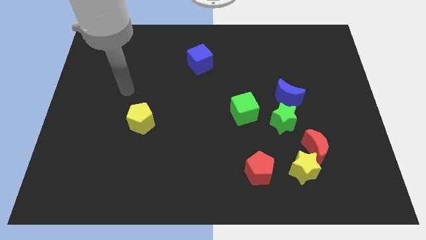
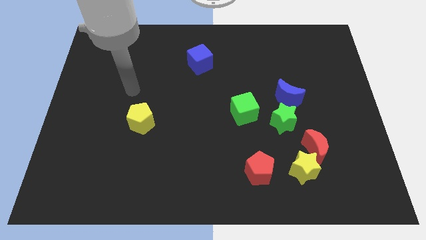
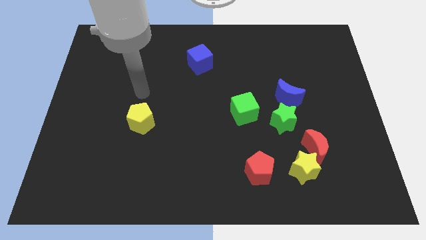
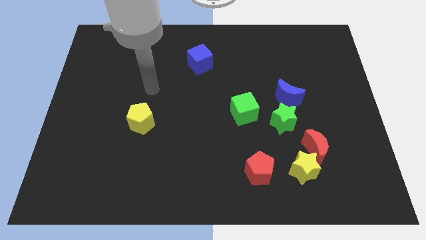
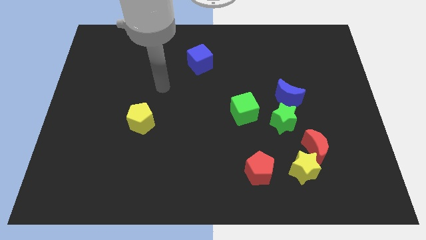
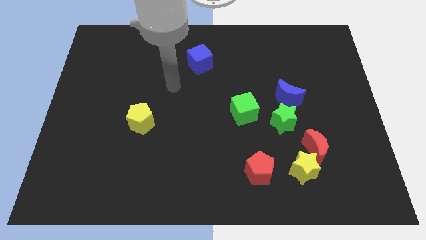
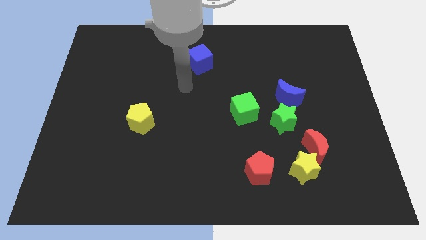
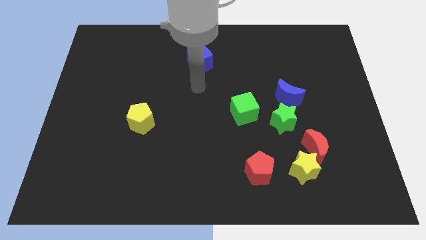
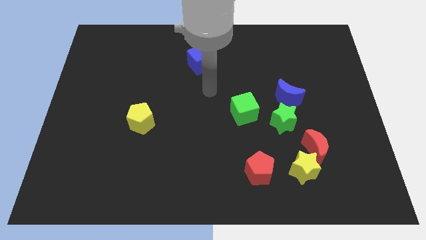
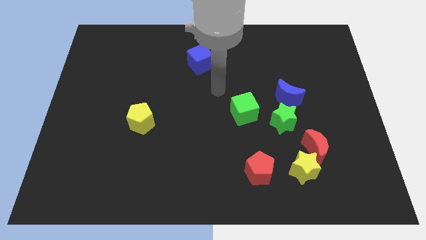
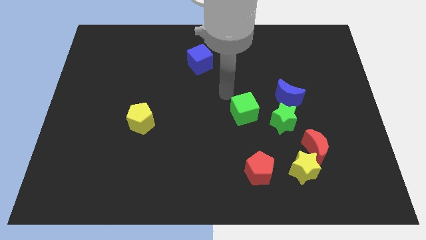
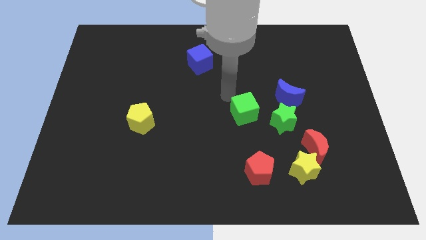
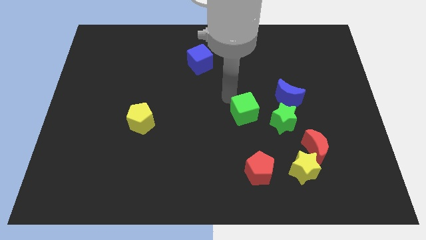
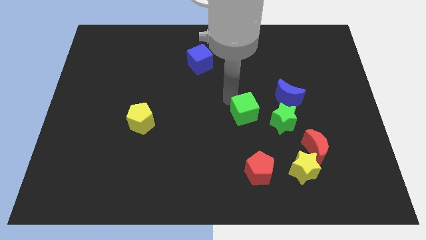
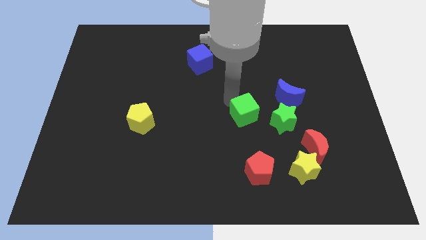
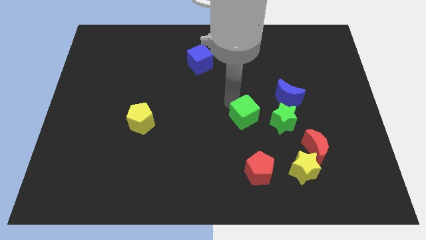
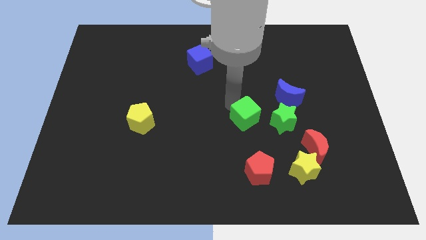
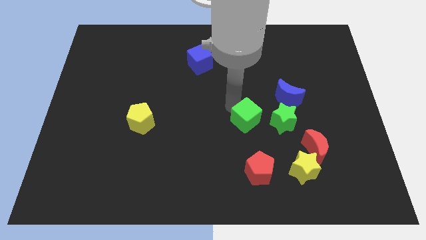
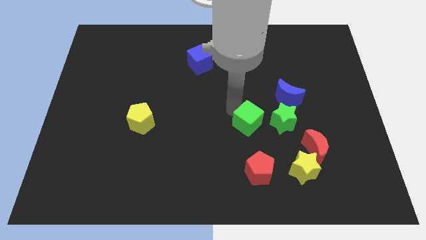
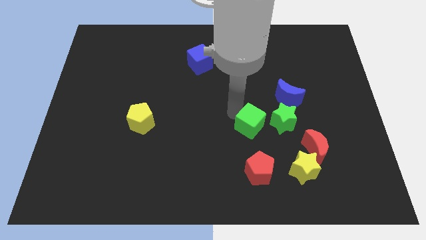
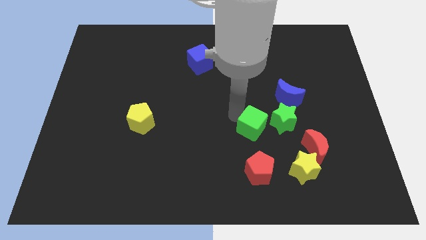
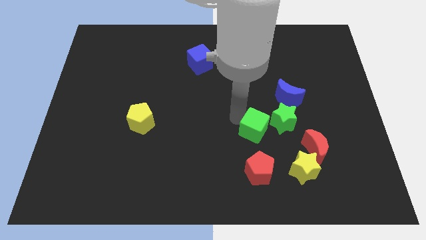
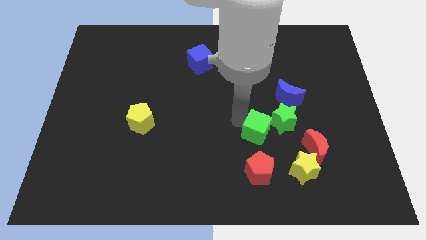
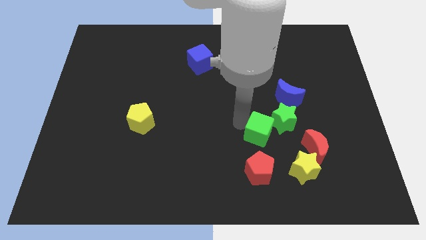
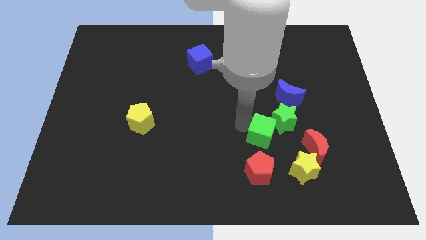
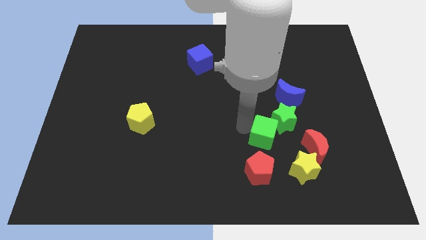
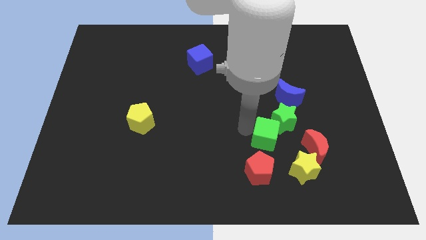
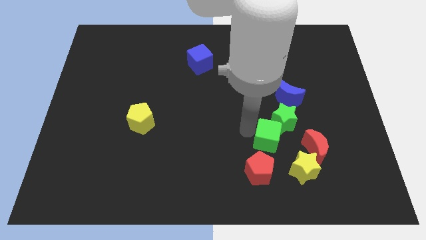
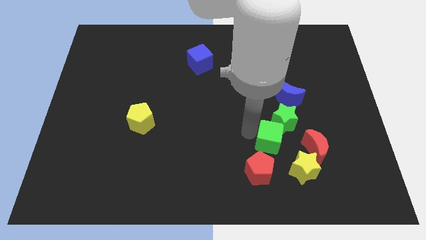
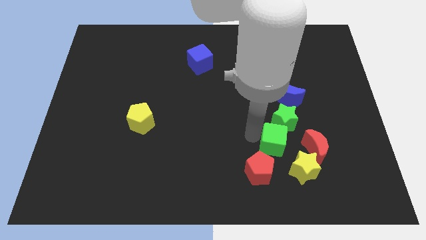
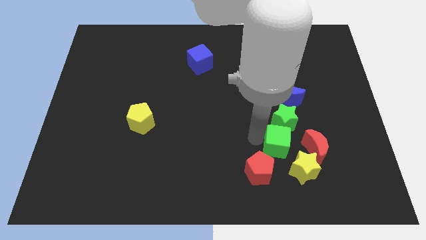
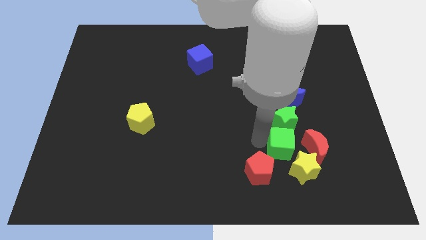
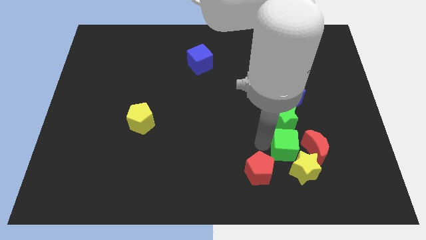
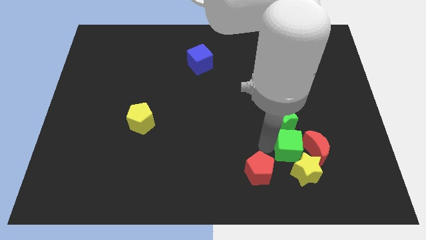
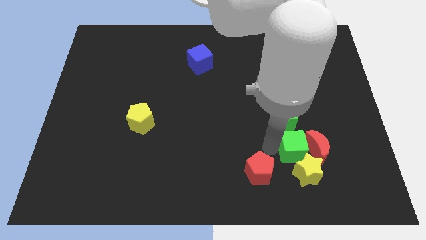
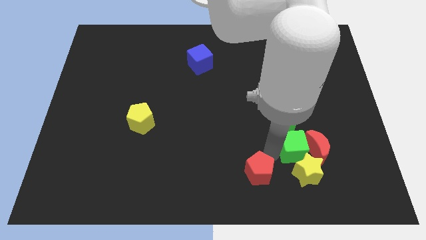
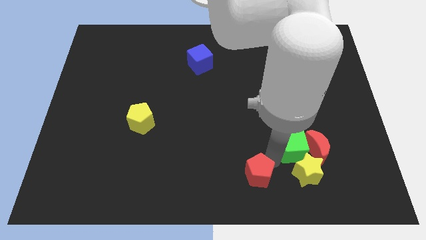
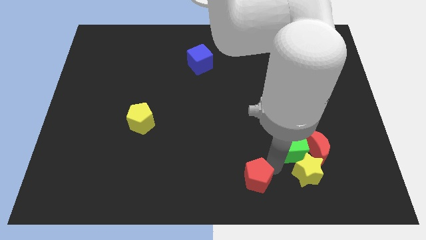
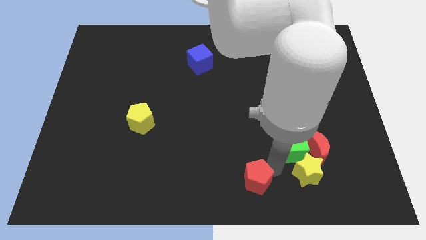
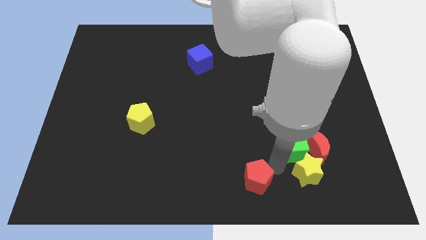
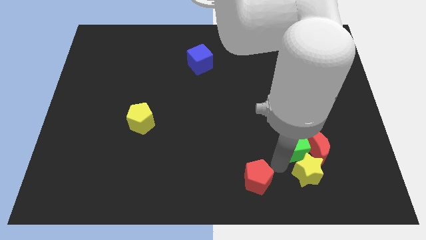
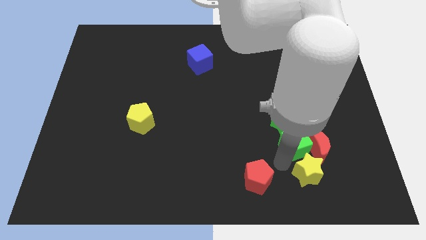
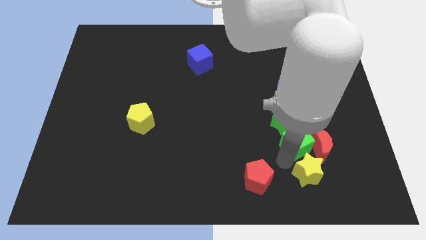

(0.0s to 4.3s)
slightly slide the green cube to the right

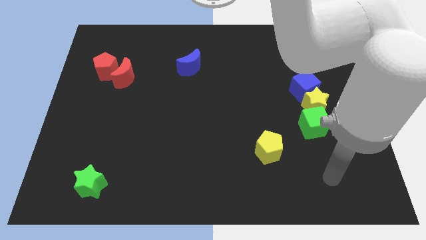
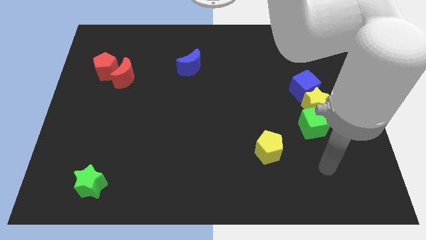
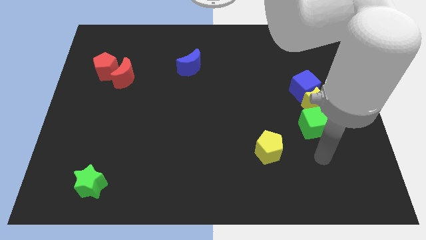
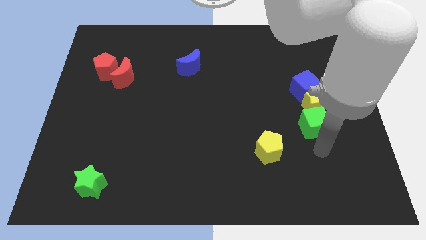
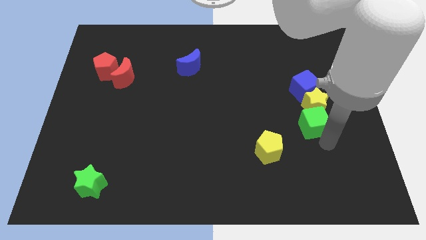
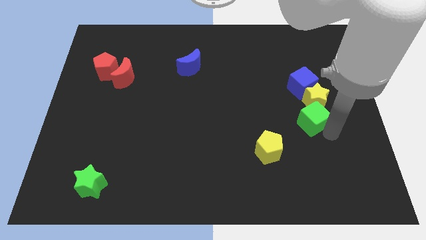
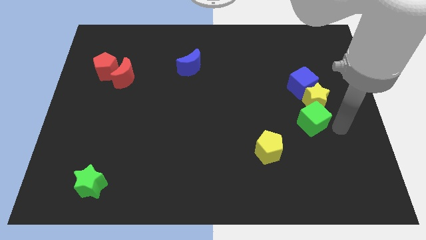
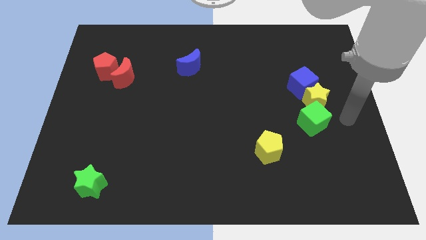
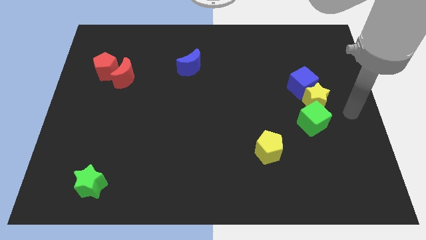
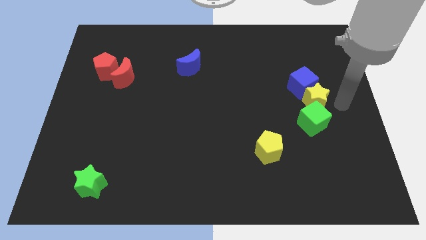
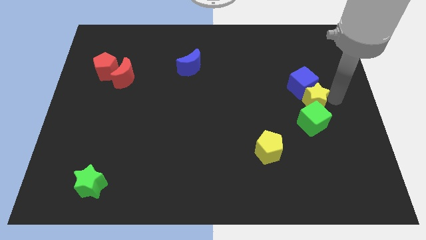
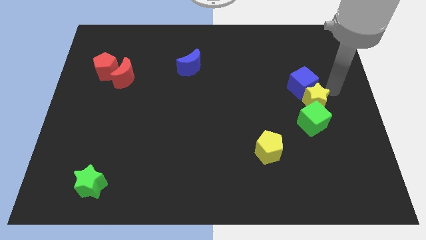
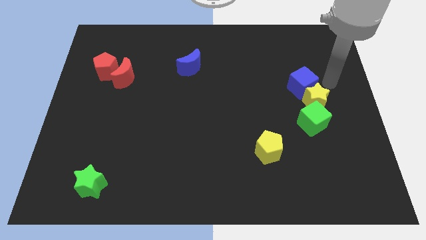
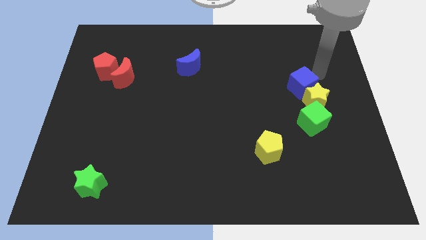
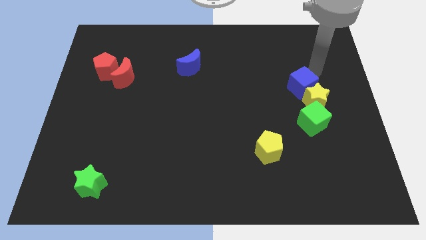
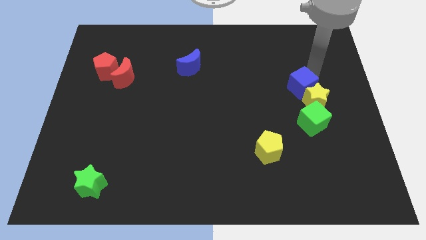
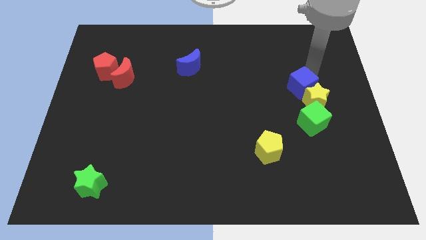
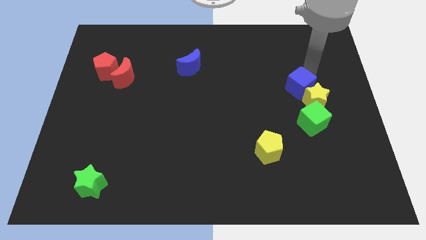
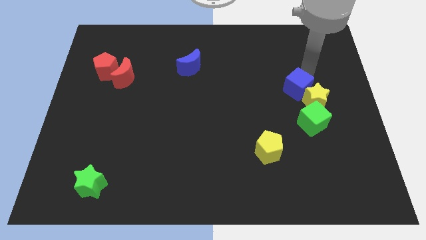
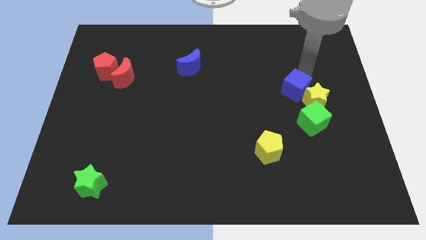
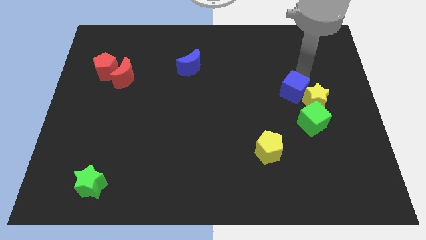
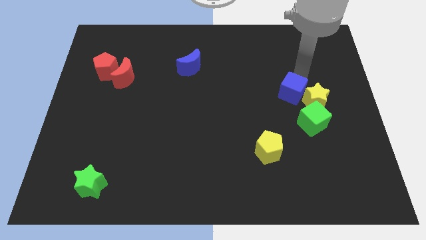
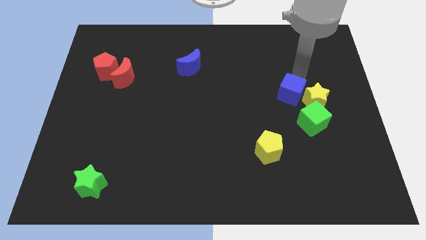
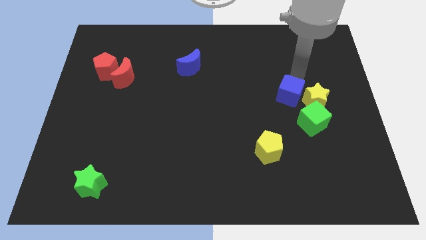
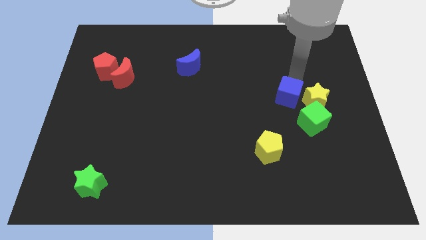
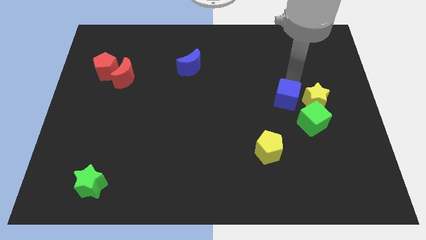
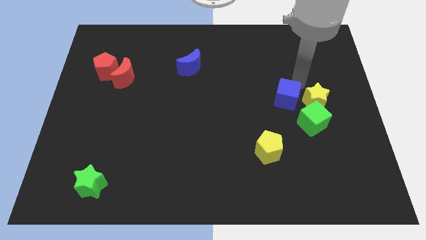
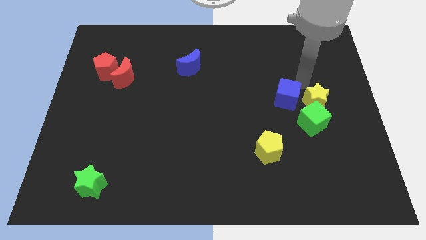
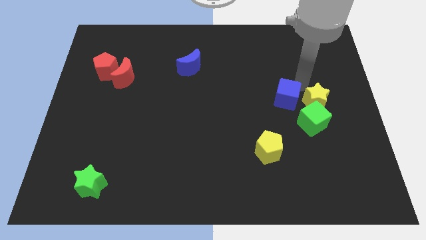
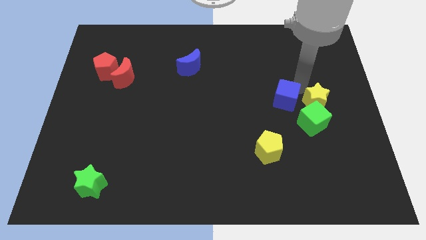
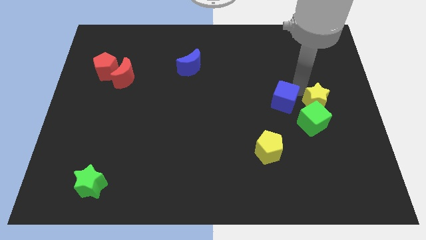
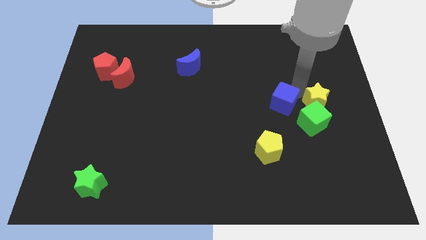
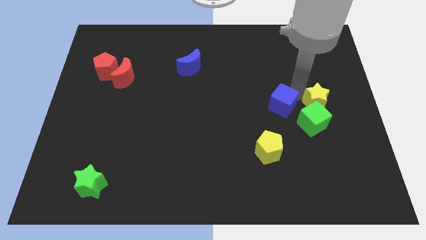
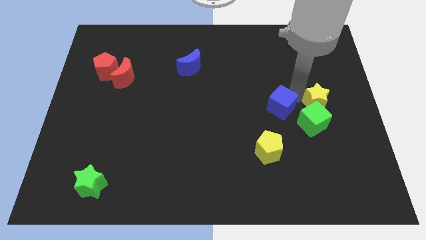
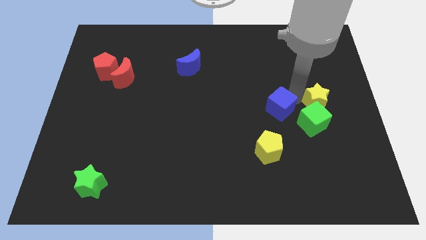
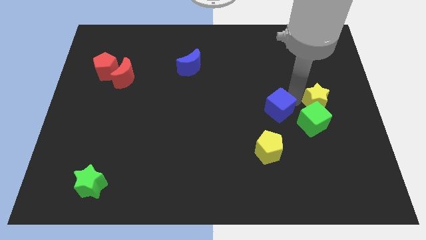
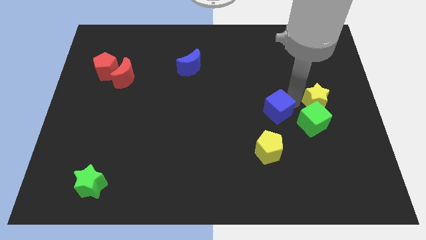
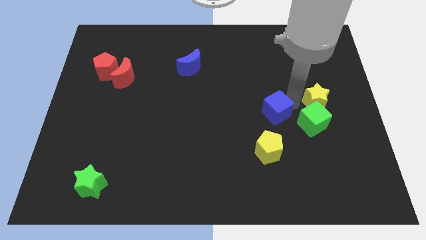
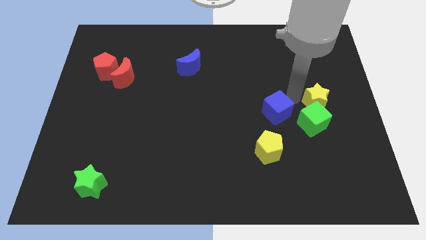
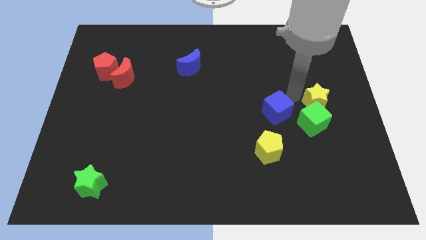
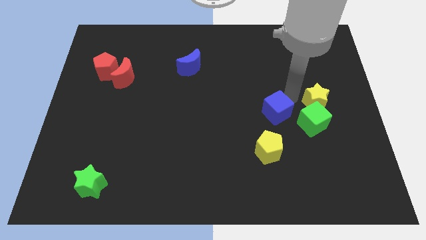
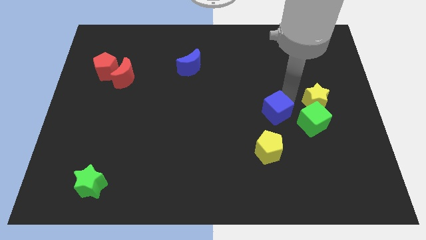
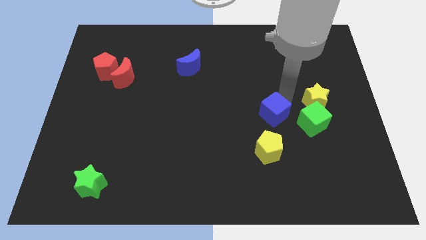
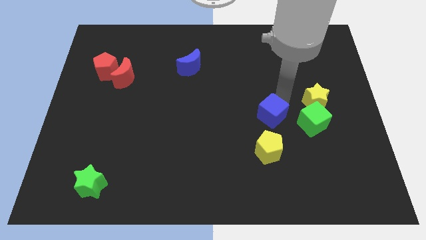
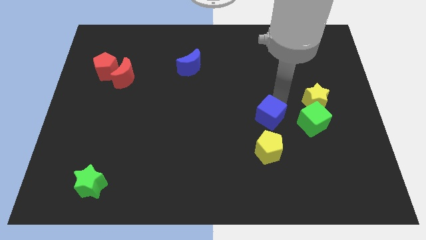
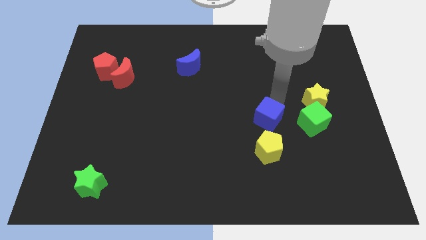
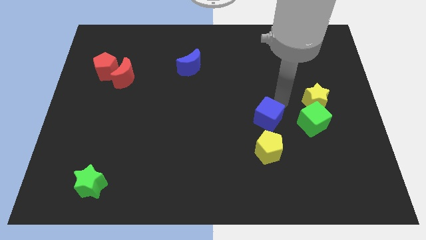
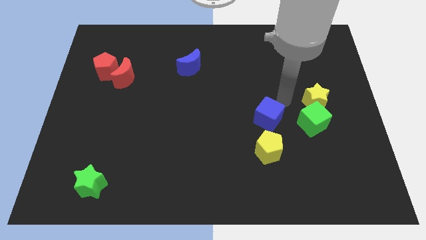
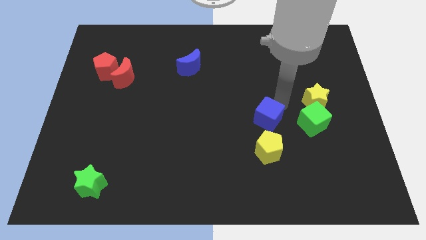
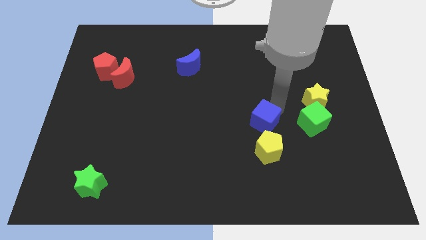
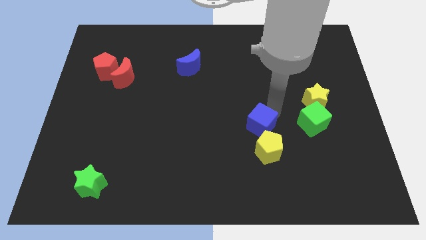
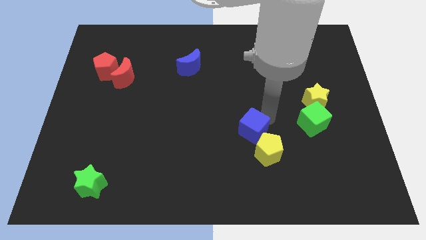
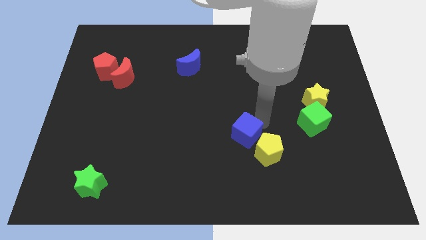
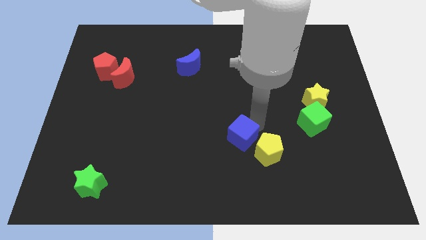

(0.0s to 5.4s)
slide the blue cube down and left diagonally
